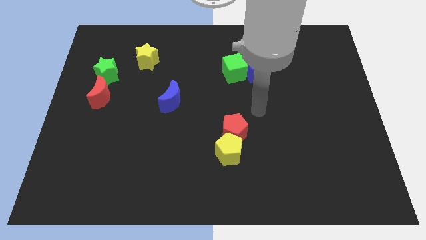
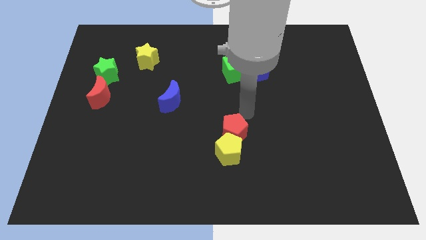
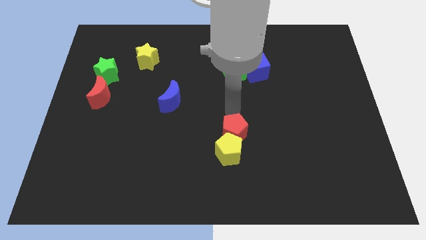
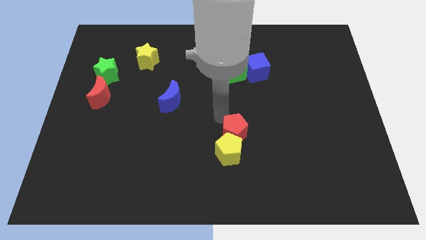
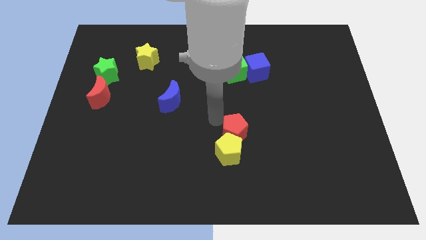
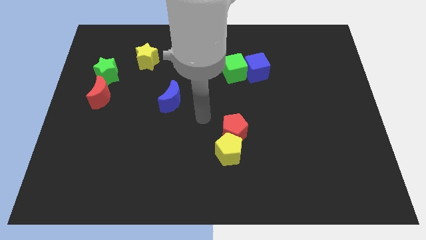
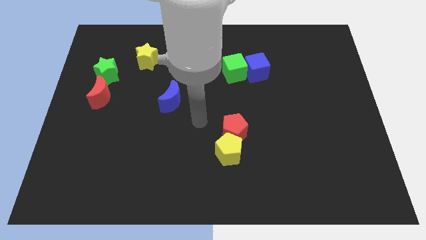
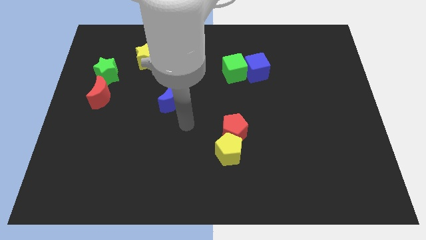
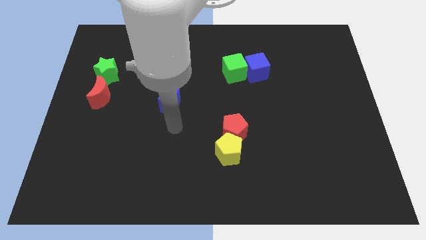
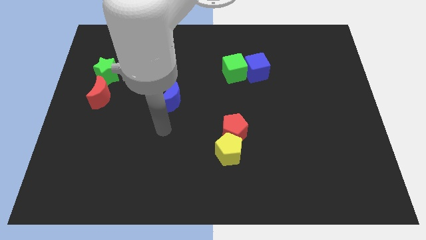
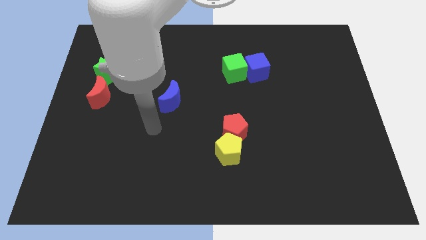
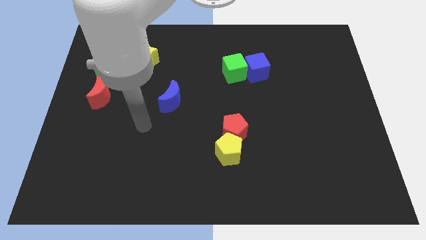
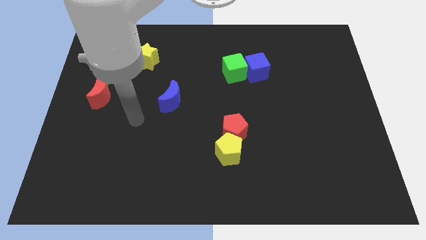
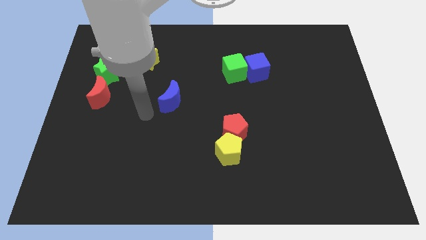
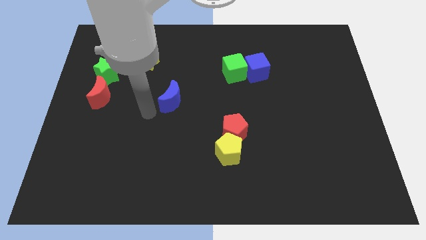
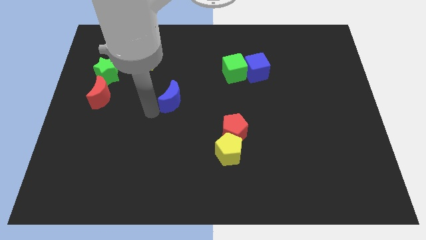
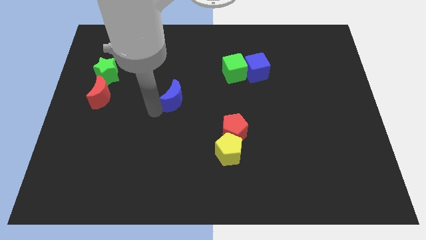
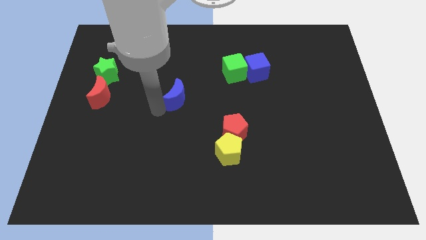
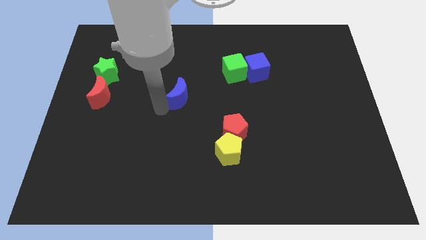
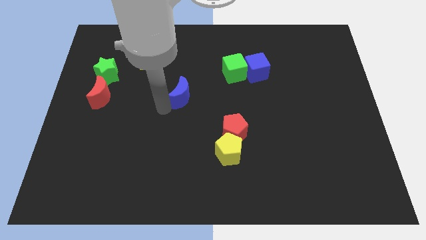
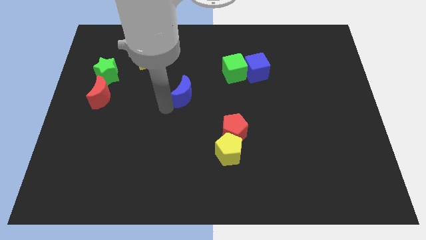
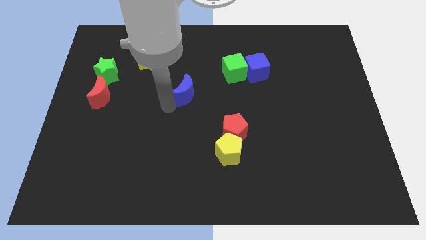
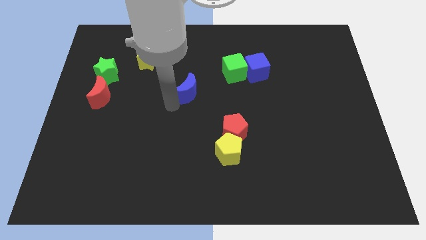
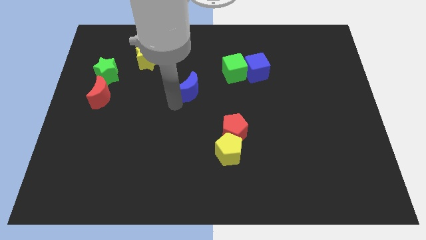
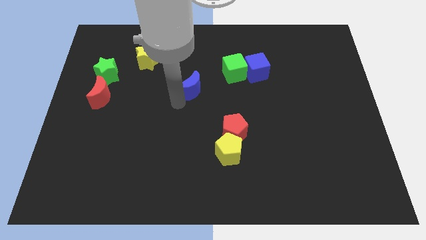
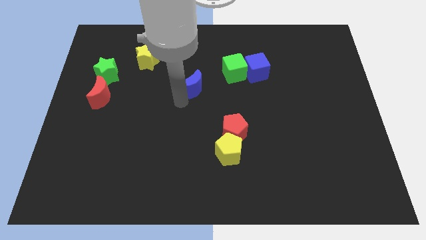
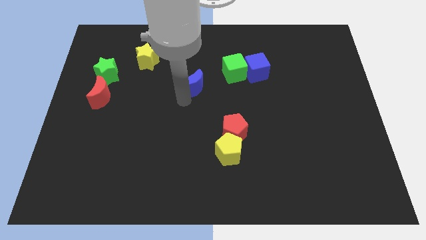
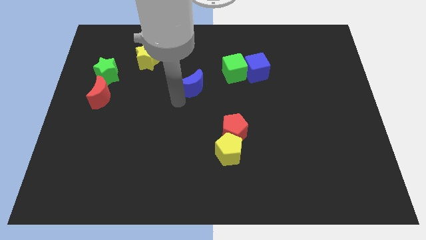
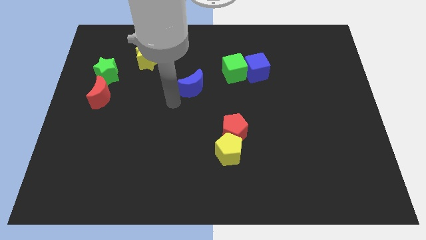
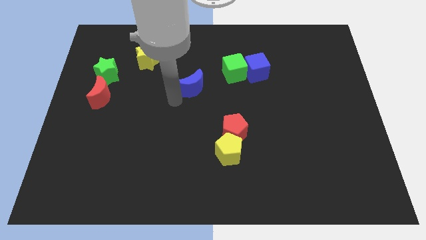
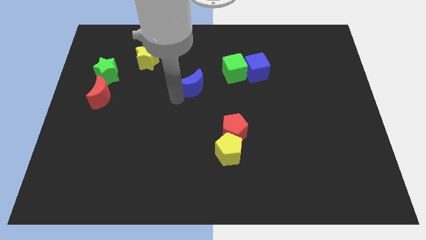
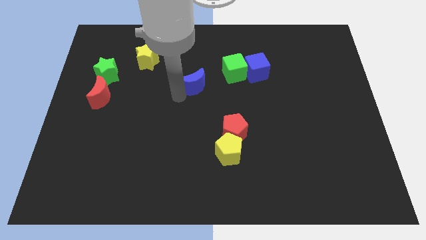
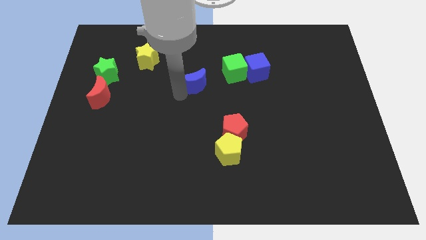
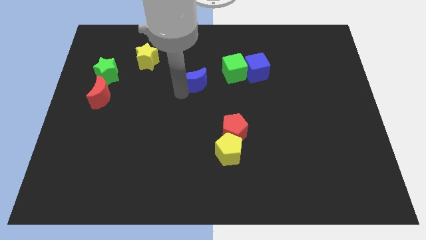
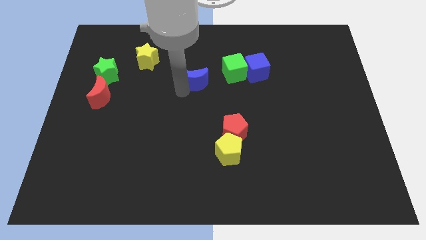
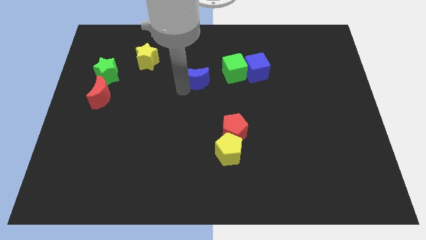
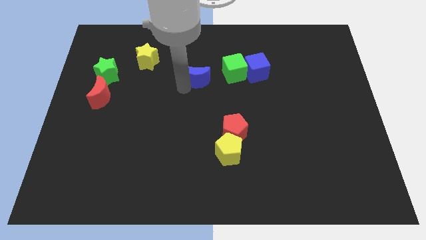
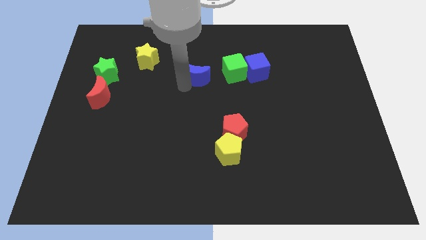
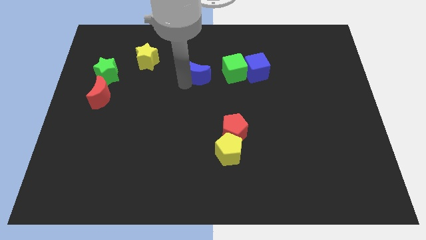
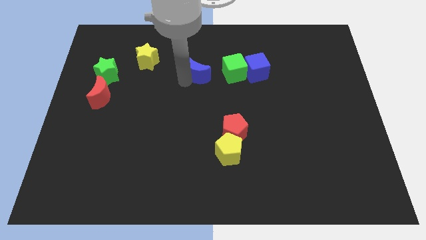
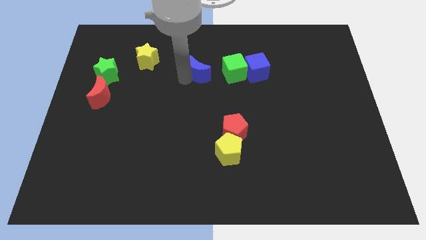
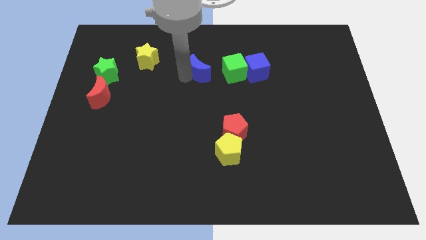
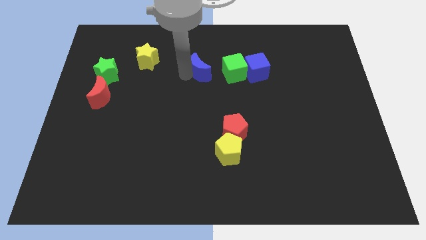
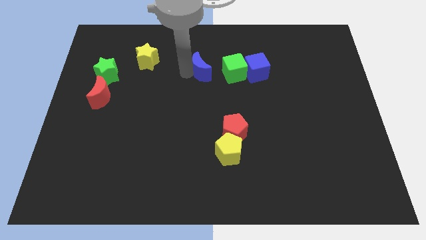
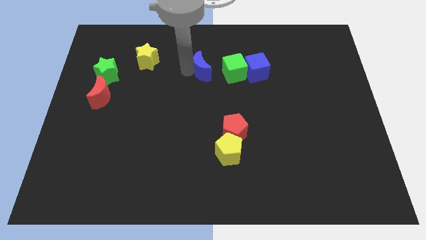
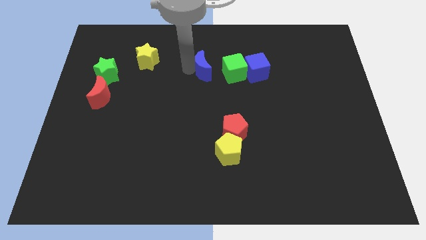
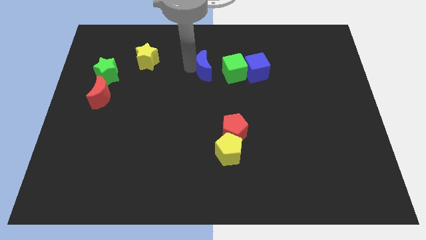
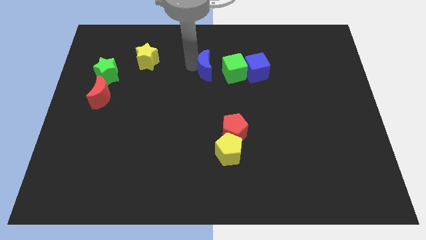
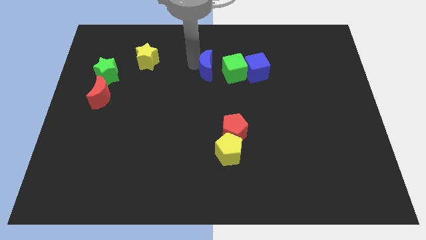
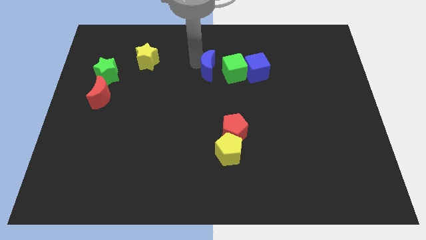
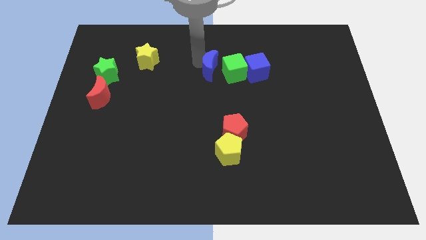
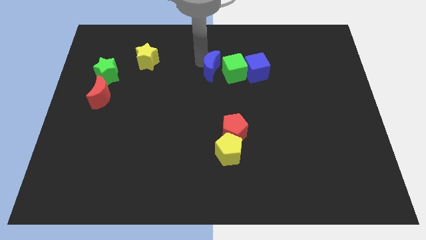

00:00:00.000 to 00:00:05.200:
move the blue moon next to the green cube

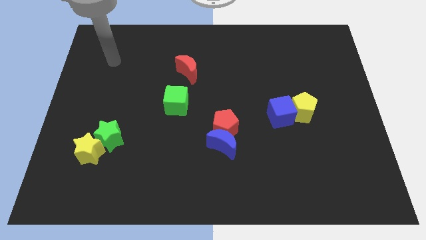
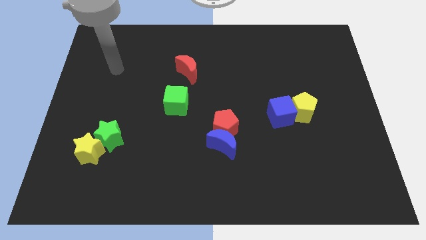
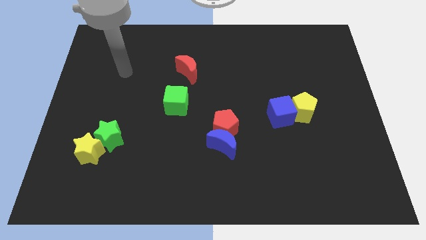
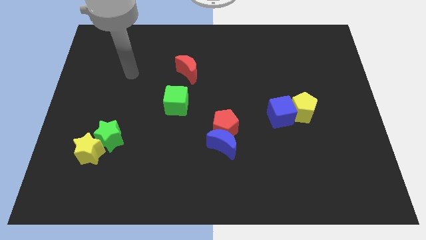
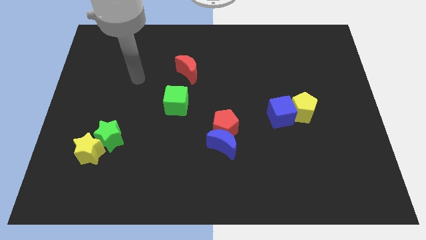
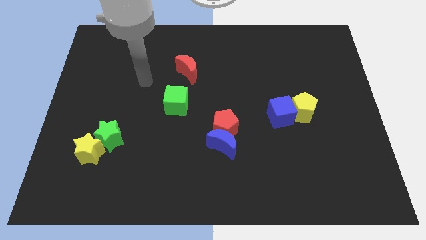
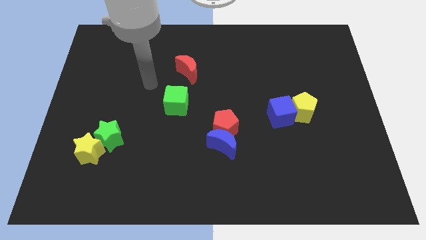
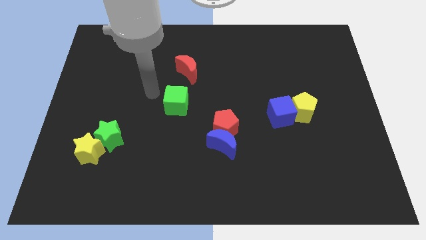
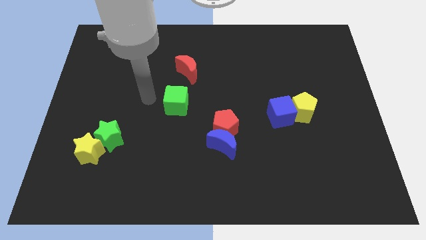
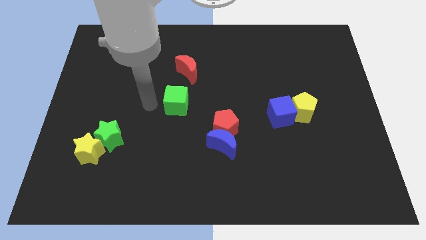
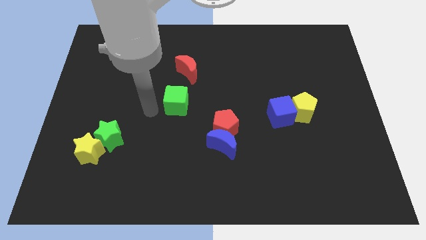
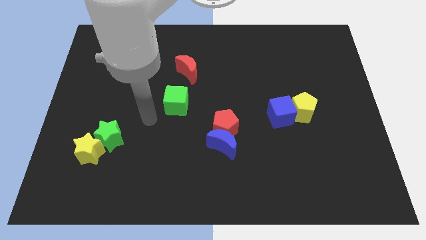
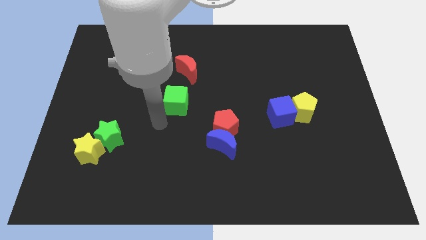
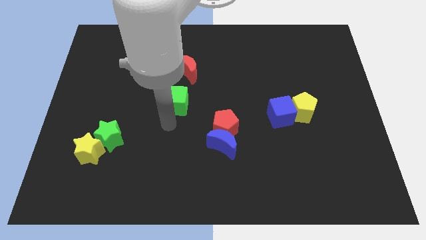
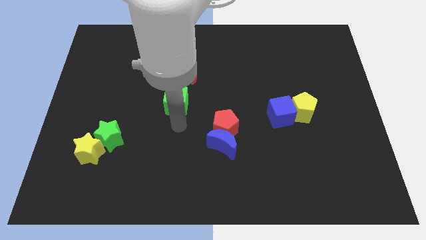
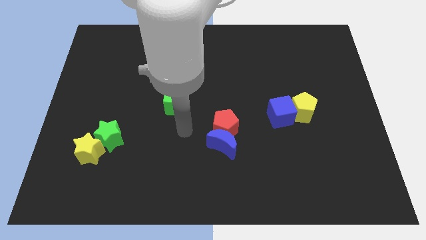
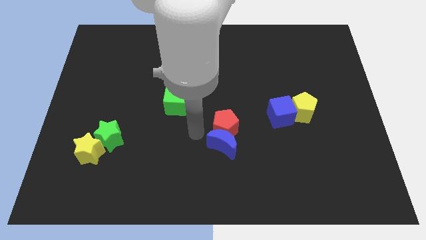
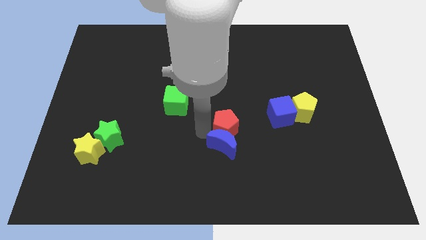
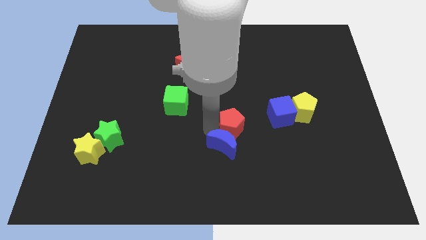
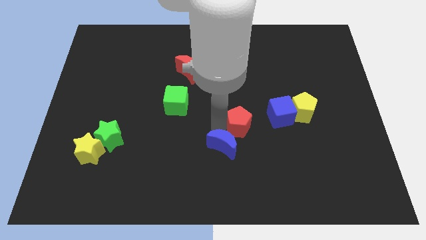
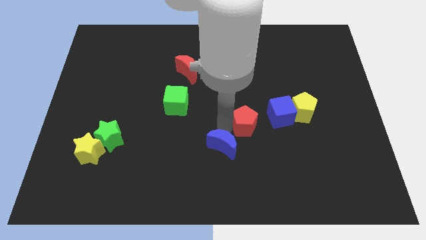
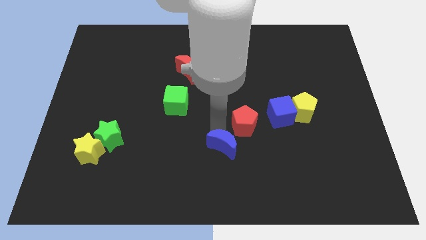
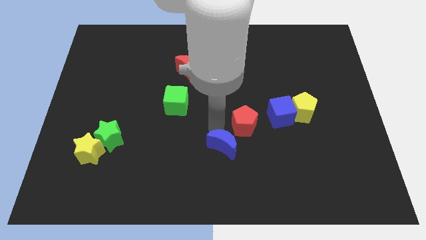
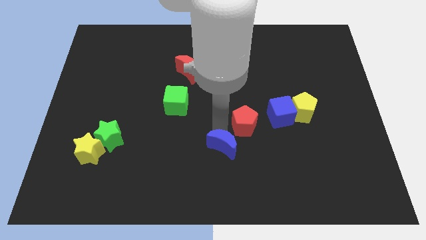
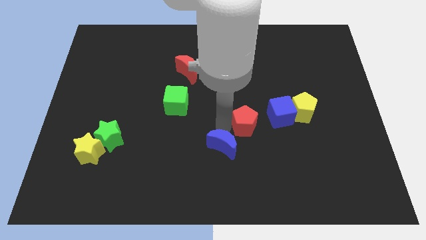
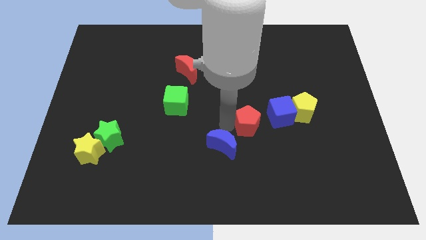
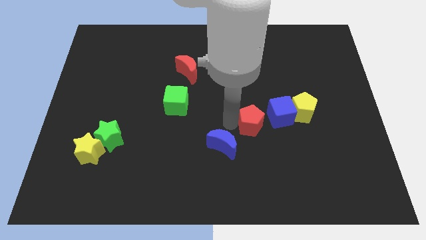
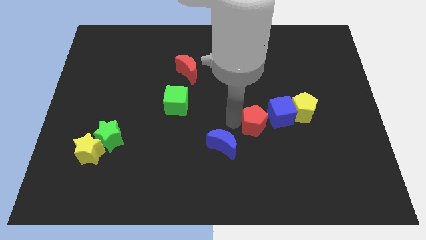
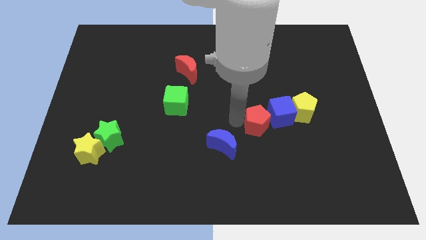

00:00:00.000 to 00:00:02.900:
push the red pentagon towards the blue cube
